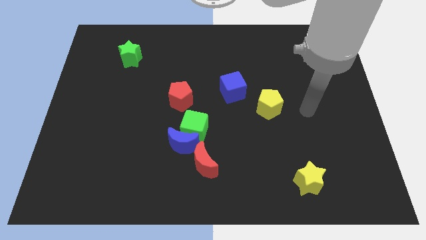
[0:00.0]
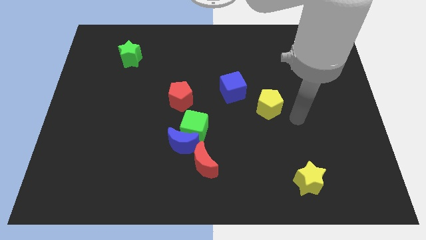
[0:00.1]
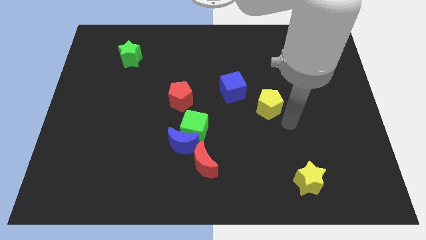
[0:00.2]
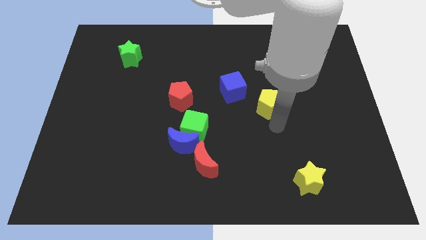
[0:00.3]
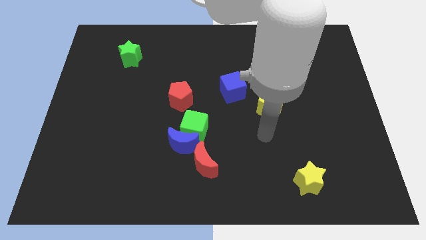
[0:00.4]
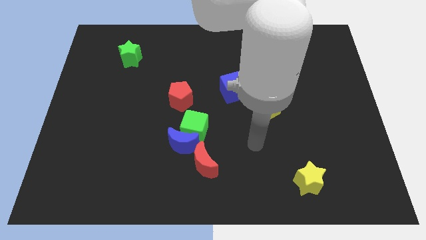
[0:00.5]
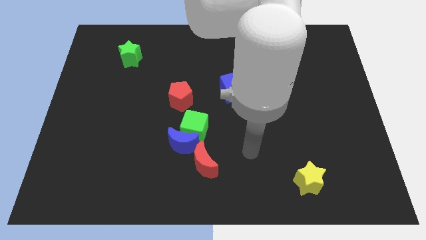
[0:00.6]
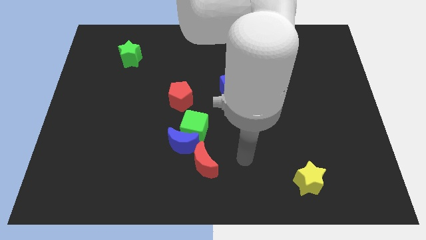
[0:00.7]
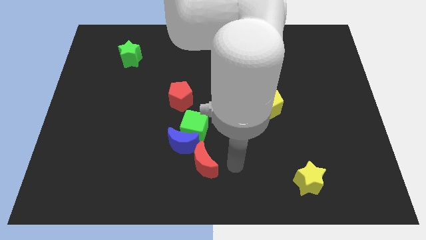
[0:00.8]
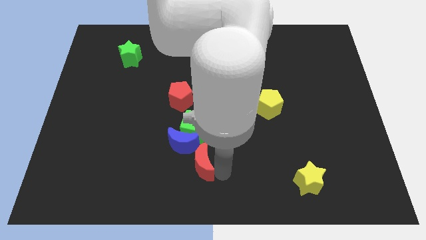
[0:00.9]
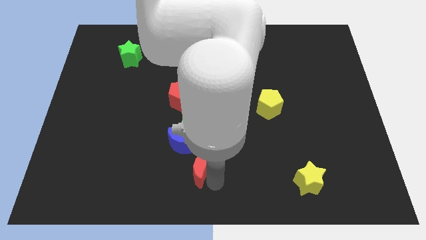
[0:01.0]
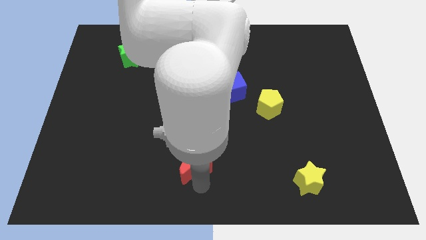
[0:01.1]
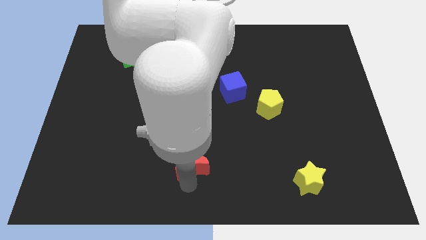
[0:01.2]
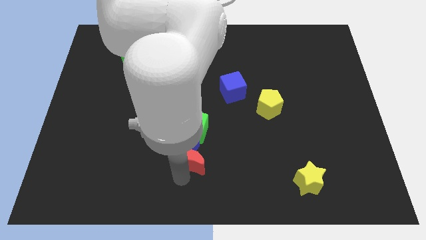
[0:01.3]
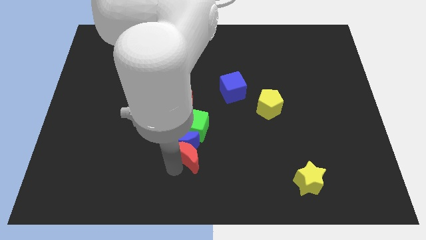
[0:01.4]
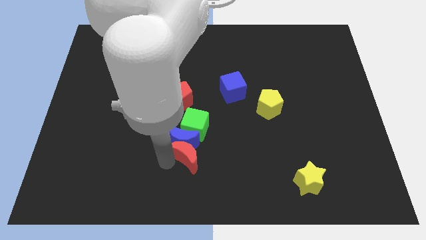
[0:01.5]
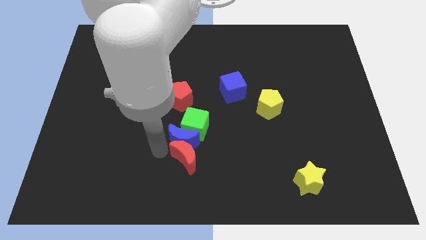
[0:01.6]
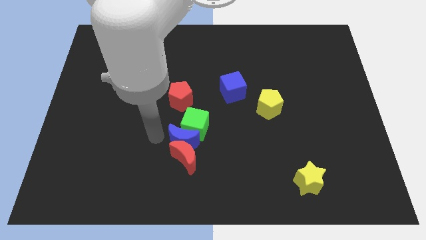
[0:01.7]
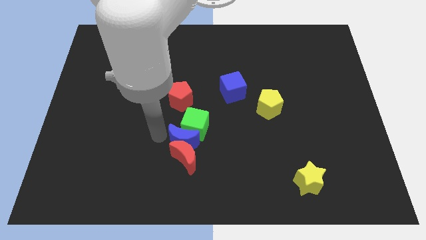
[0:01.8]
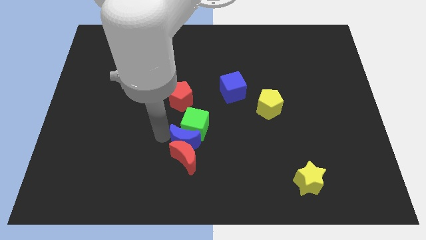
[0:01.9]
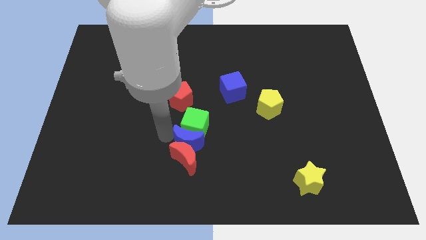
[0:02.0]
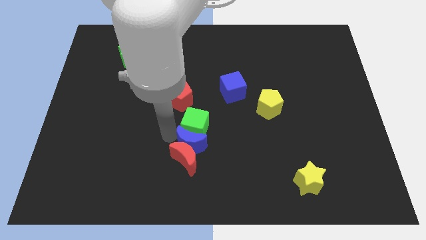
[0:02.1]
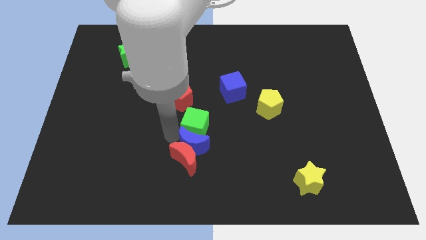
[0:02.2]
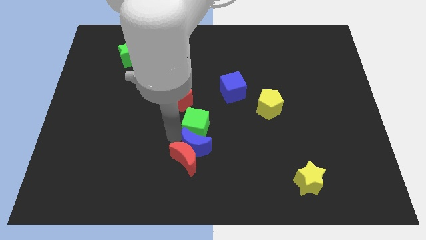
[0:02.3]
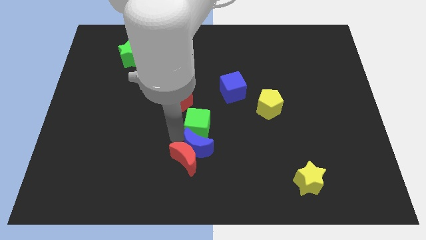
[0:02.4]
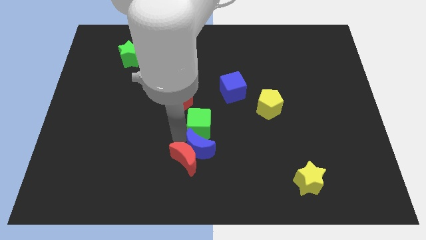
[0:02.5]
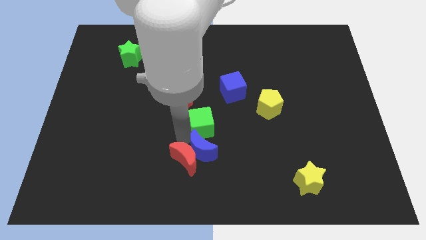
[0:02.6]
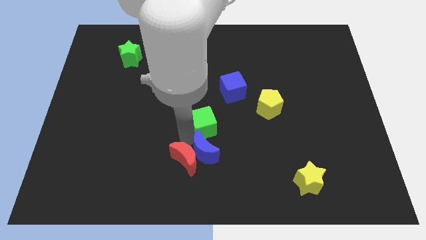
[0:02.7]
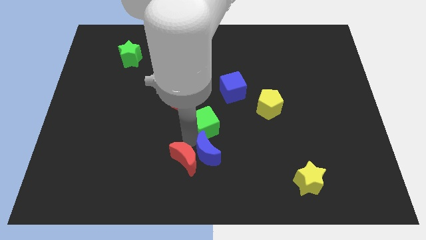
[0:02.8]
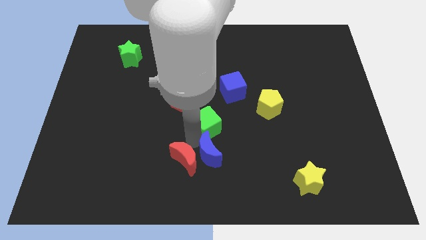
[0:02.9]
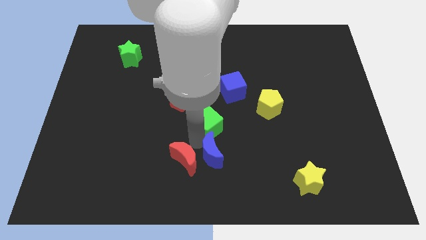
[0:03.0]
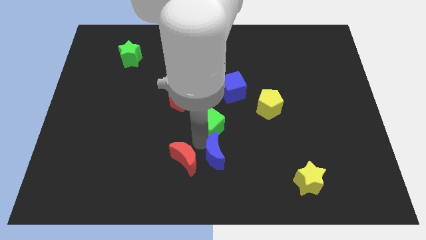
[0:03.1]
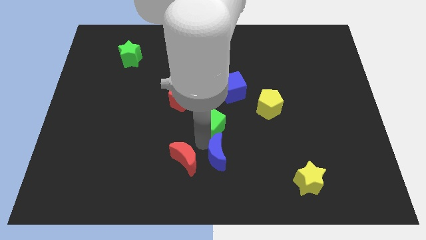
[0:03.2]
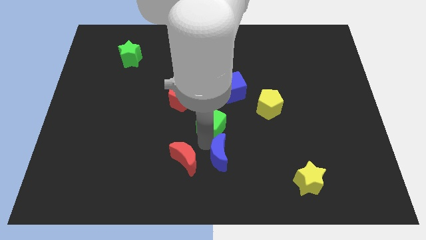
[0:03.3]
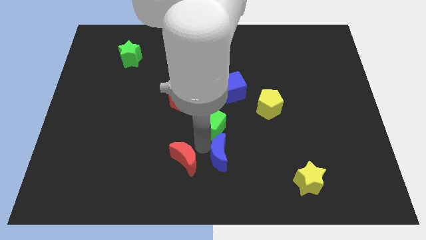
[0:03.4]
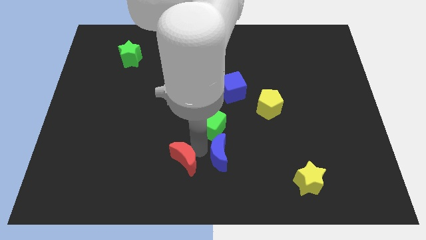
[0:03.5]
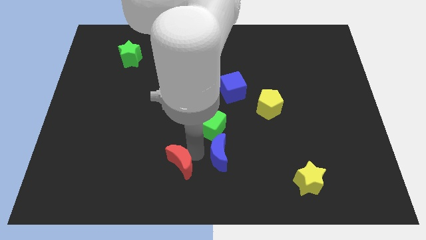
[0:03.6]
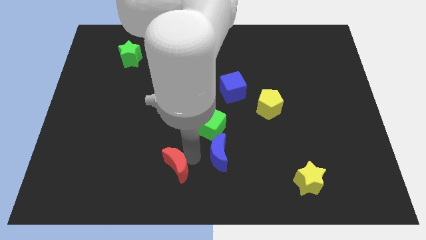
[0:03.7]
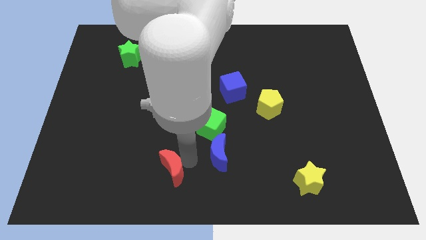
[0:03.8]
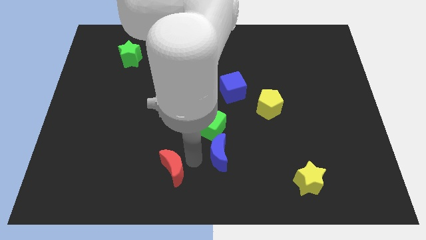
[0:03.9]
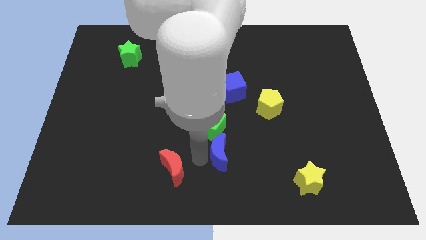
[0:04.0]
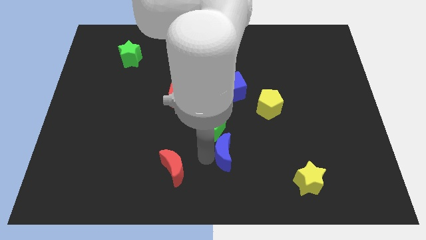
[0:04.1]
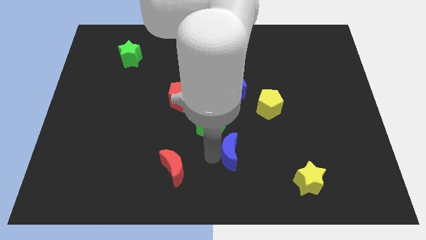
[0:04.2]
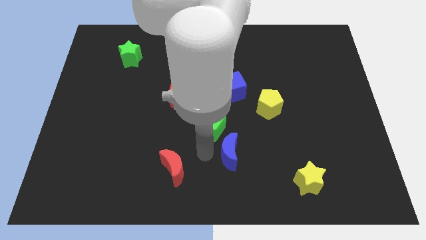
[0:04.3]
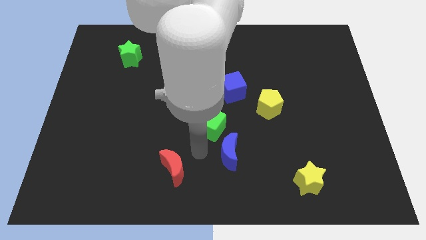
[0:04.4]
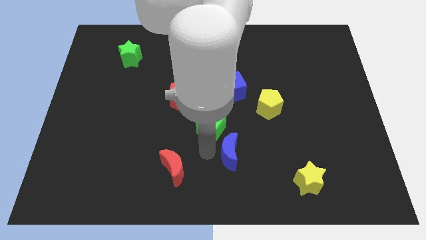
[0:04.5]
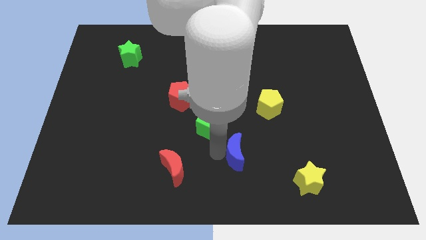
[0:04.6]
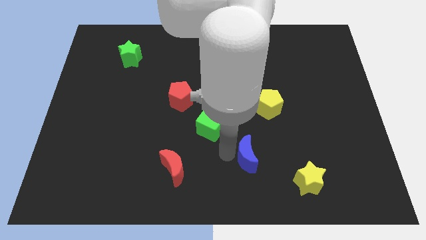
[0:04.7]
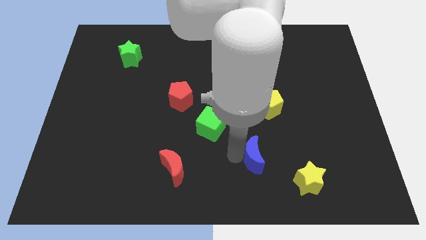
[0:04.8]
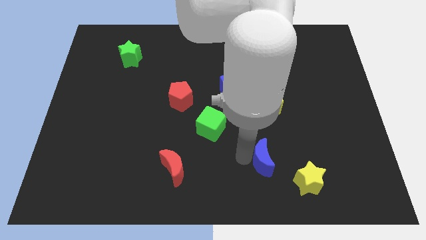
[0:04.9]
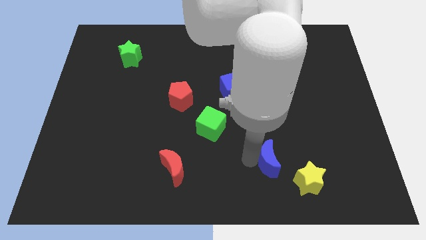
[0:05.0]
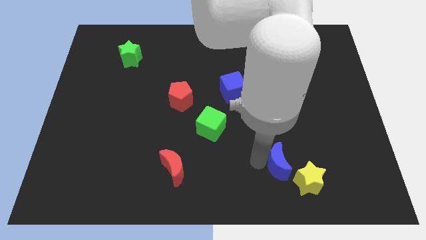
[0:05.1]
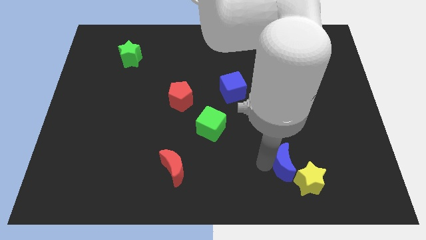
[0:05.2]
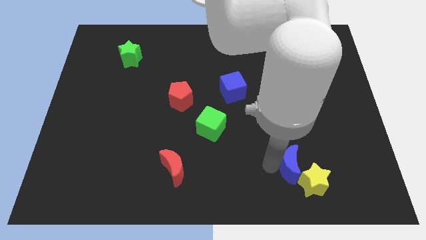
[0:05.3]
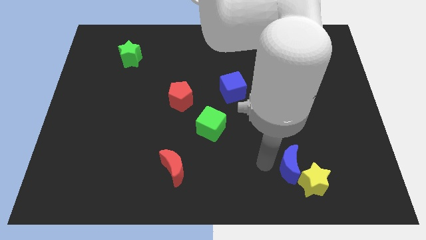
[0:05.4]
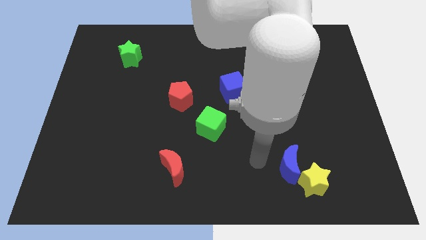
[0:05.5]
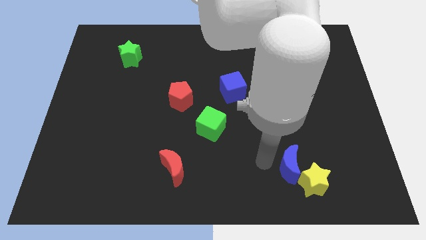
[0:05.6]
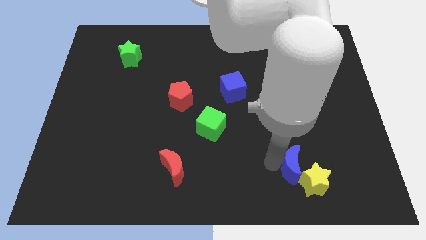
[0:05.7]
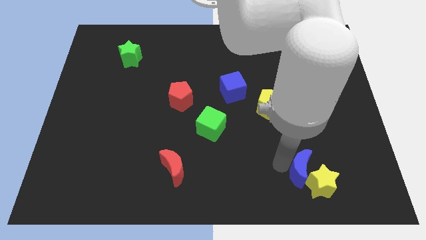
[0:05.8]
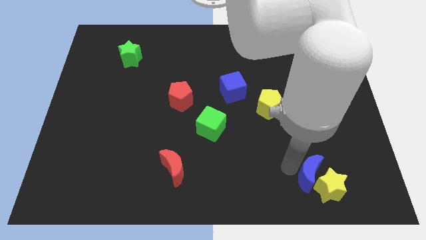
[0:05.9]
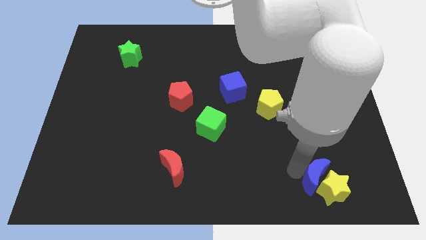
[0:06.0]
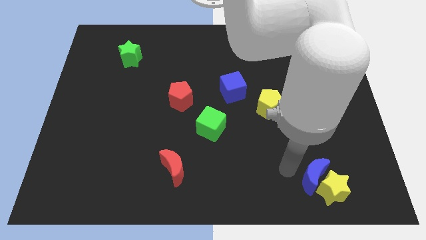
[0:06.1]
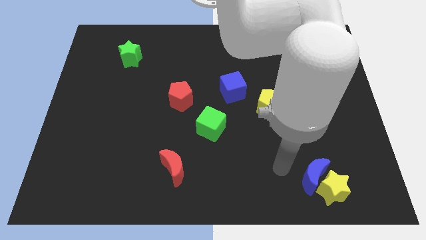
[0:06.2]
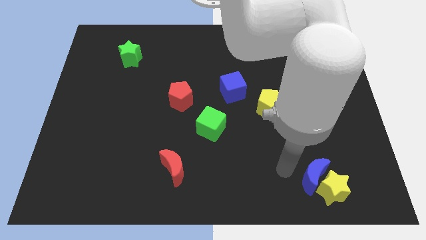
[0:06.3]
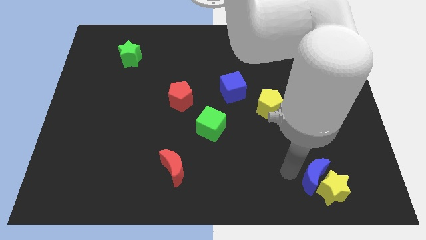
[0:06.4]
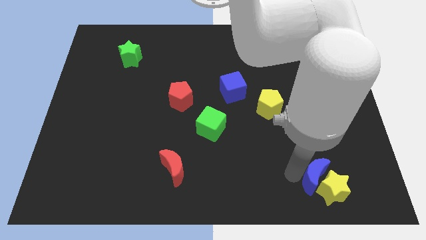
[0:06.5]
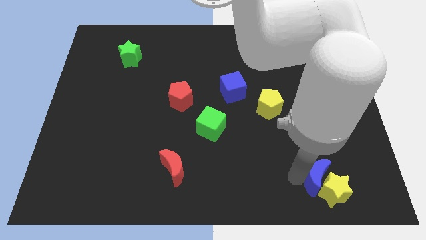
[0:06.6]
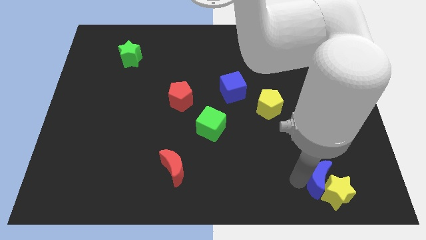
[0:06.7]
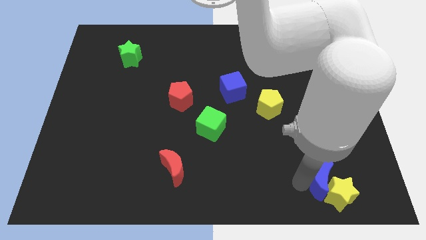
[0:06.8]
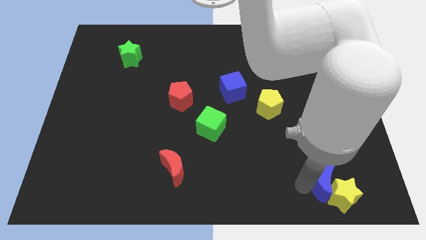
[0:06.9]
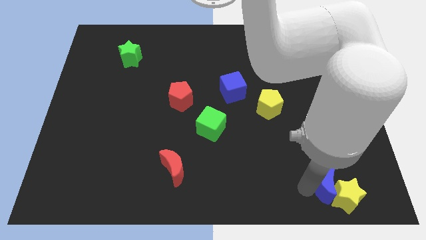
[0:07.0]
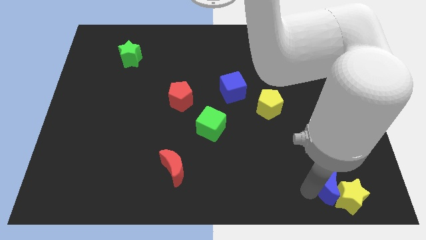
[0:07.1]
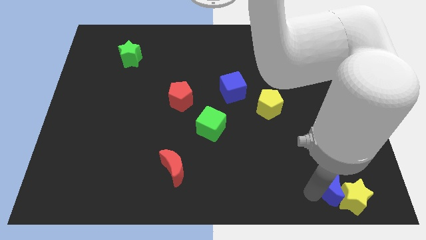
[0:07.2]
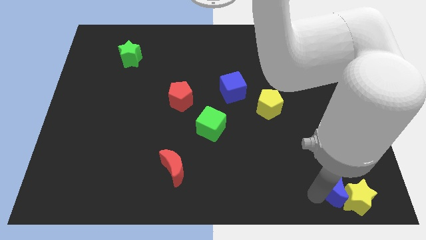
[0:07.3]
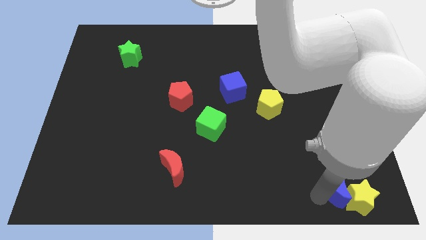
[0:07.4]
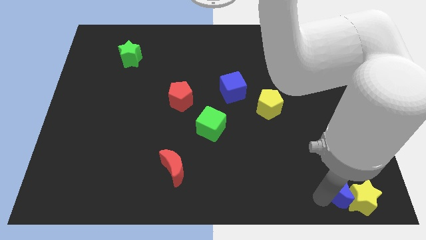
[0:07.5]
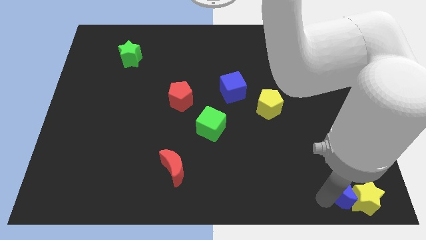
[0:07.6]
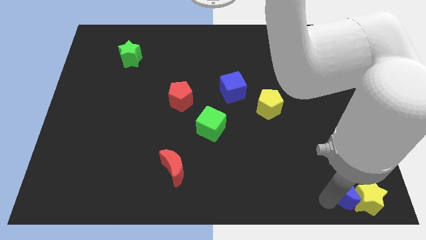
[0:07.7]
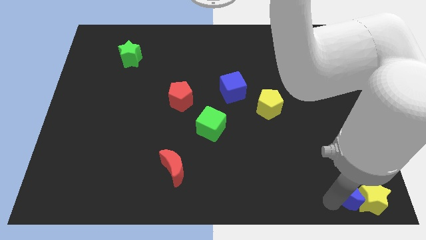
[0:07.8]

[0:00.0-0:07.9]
move the blue moon to the bottom right corner
